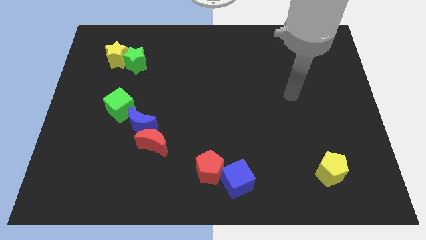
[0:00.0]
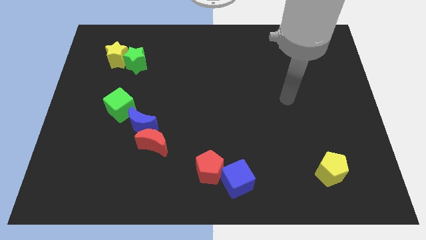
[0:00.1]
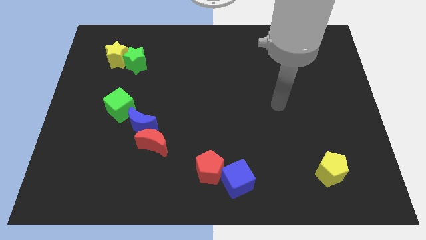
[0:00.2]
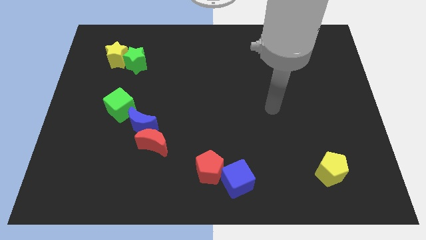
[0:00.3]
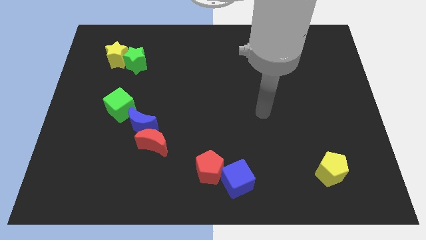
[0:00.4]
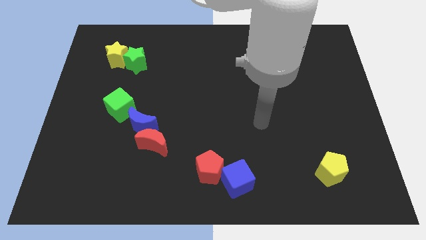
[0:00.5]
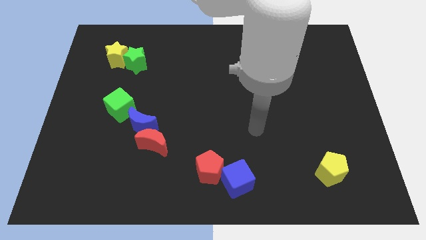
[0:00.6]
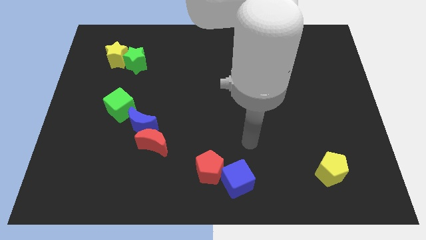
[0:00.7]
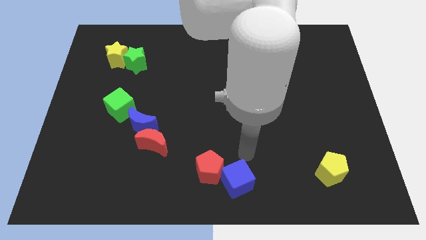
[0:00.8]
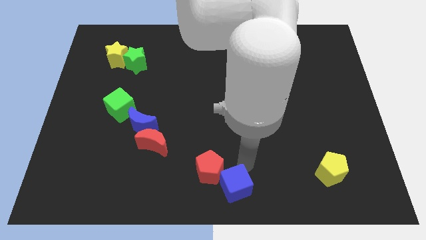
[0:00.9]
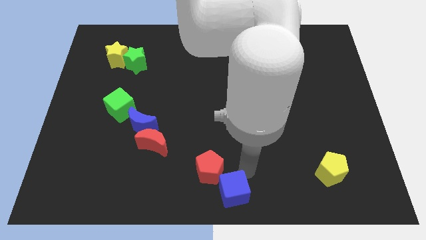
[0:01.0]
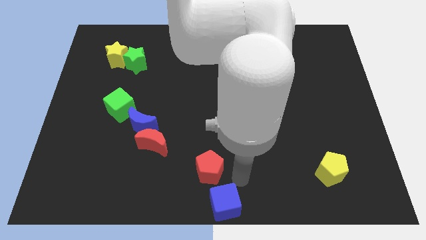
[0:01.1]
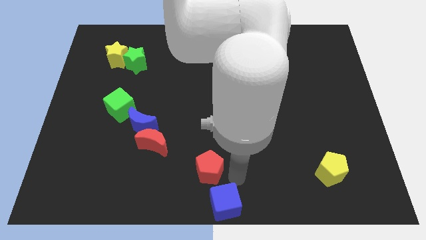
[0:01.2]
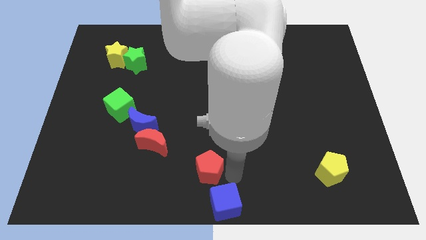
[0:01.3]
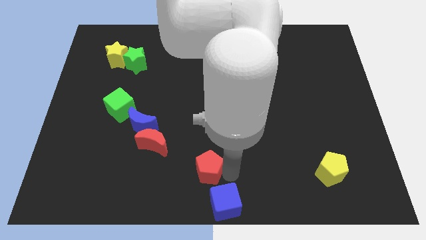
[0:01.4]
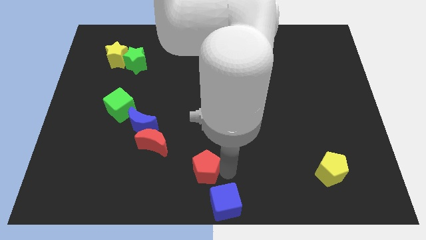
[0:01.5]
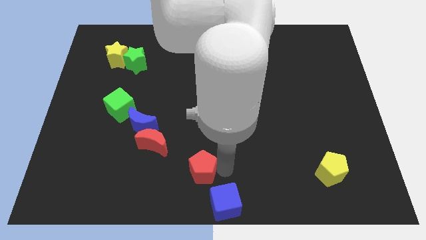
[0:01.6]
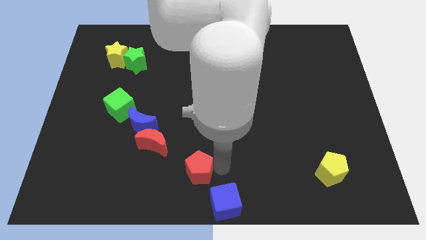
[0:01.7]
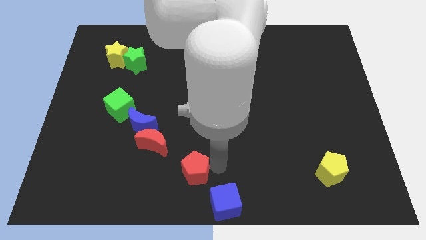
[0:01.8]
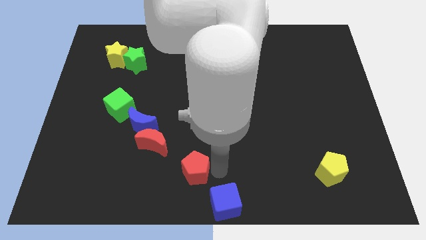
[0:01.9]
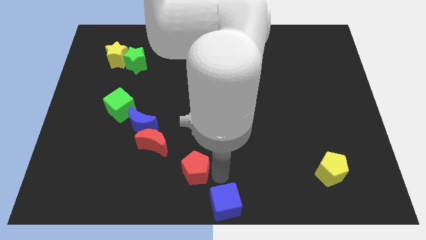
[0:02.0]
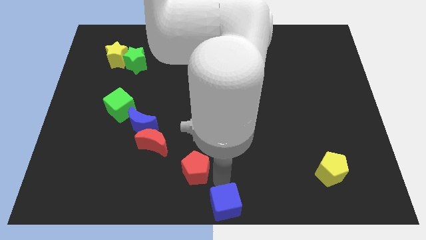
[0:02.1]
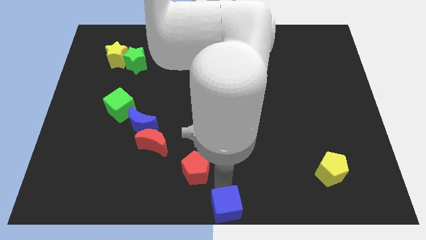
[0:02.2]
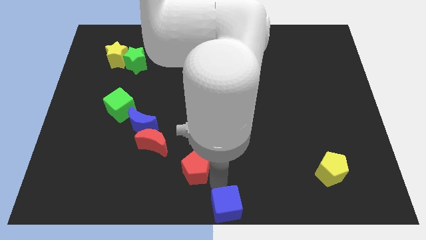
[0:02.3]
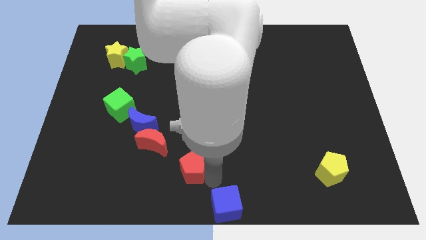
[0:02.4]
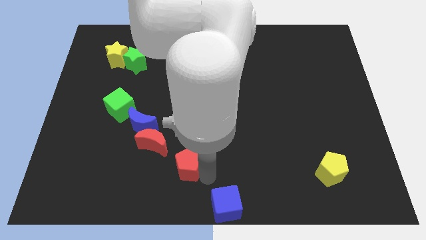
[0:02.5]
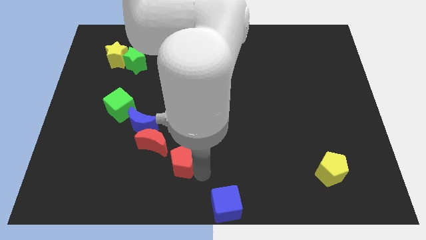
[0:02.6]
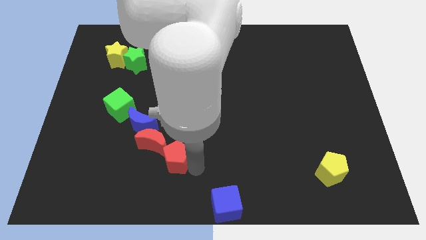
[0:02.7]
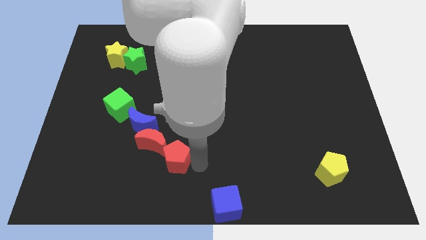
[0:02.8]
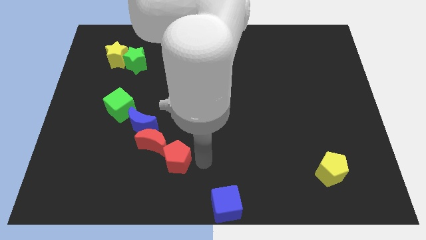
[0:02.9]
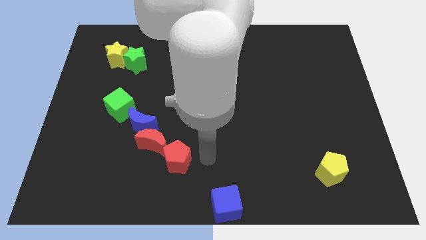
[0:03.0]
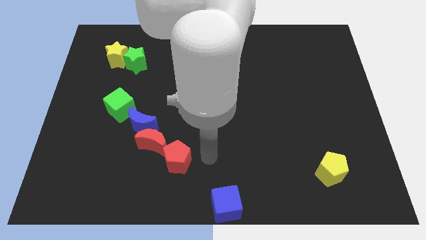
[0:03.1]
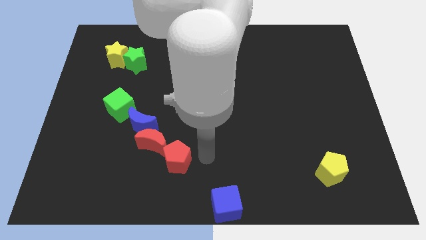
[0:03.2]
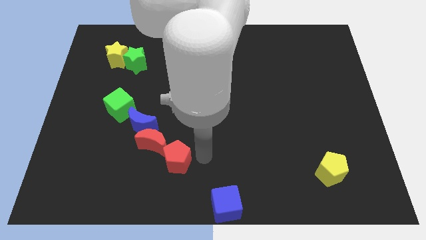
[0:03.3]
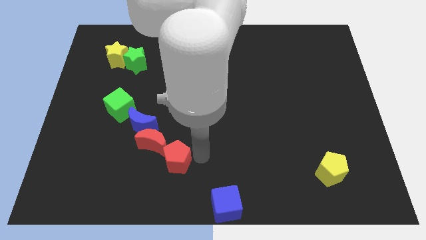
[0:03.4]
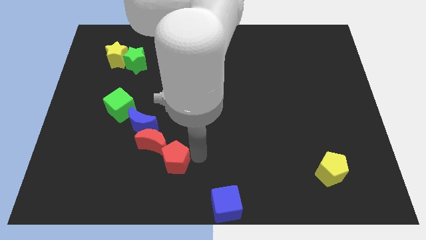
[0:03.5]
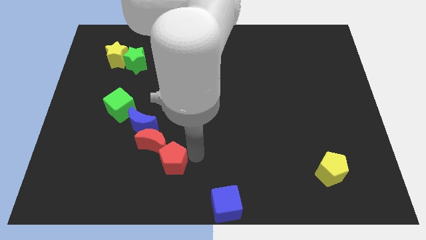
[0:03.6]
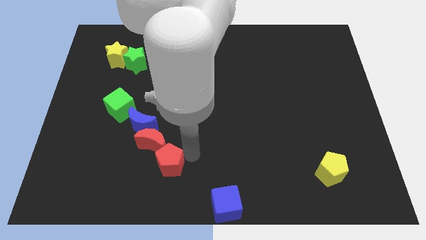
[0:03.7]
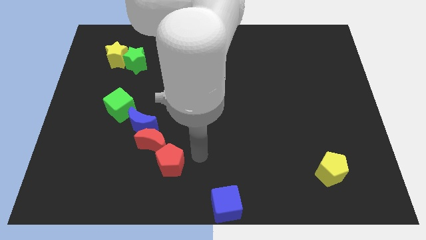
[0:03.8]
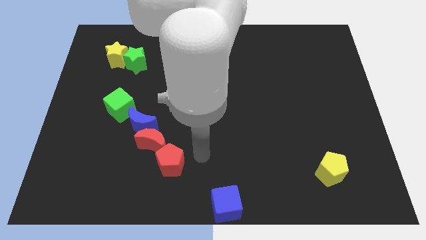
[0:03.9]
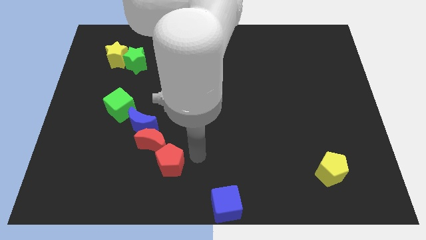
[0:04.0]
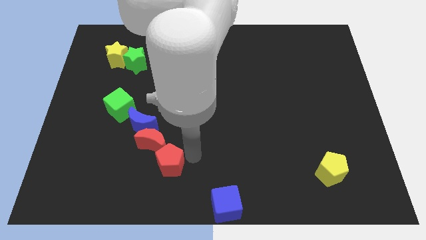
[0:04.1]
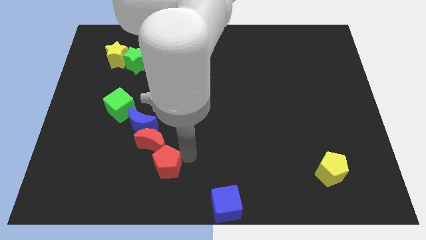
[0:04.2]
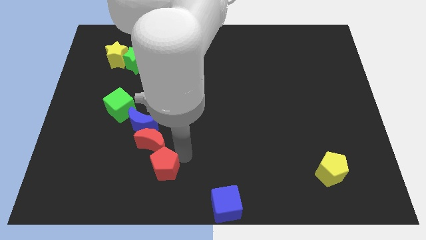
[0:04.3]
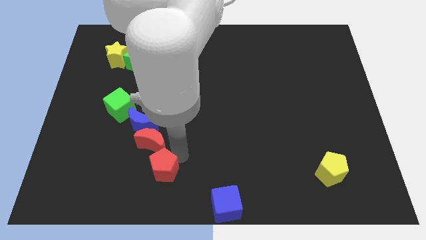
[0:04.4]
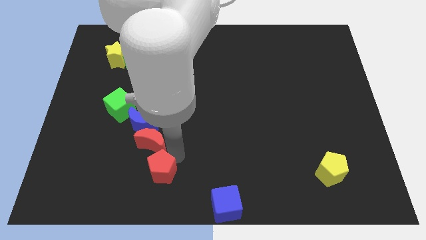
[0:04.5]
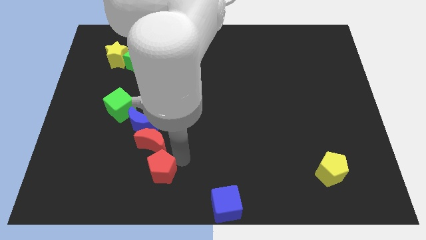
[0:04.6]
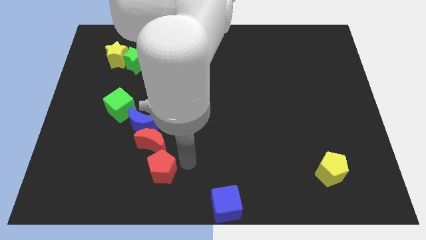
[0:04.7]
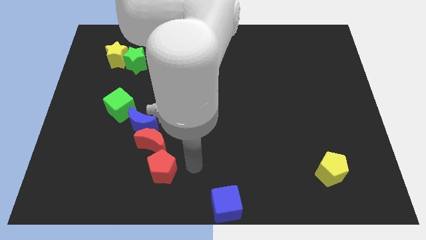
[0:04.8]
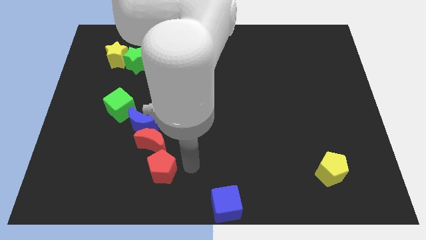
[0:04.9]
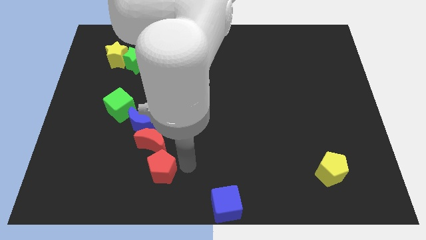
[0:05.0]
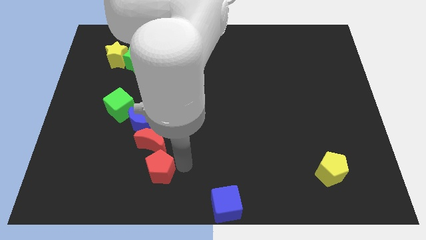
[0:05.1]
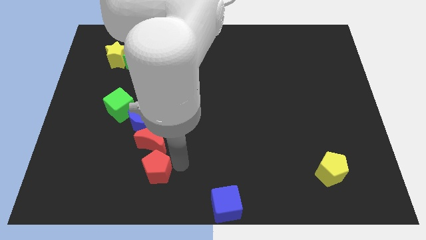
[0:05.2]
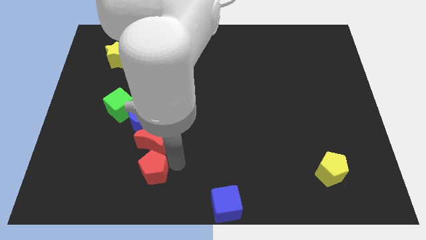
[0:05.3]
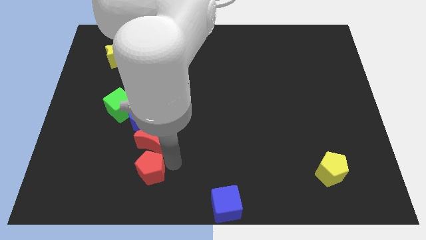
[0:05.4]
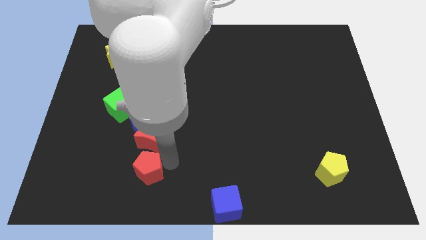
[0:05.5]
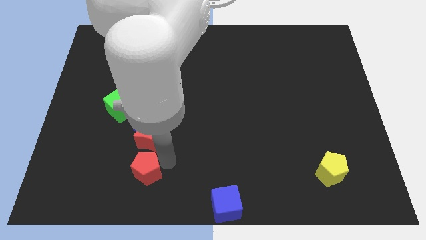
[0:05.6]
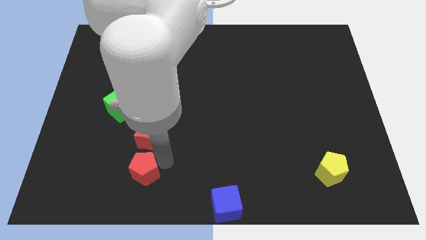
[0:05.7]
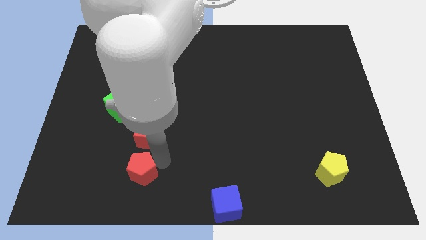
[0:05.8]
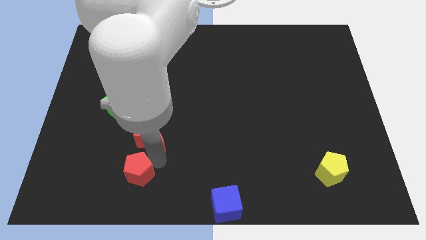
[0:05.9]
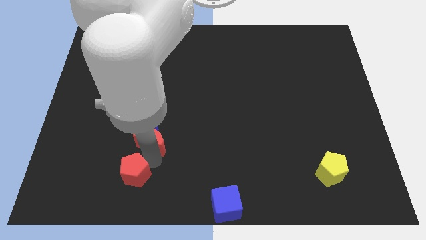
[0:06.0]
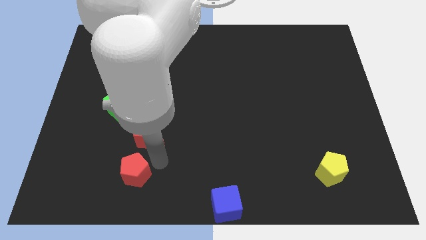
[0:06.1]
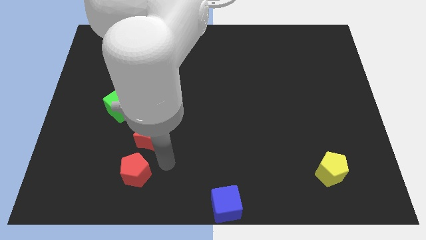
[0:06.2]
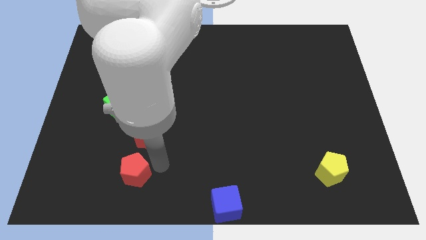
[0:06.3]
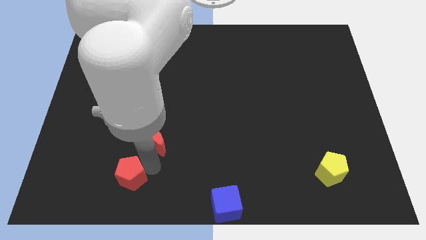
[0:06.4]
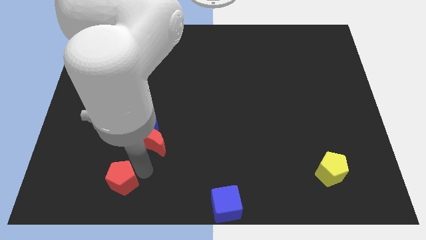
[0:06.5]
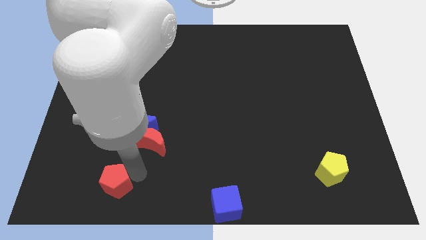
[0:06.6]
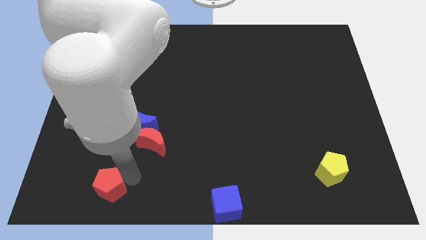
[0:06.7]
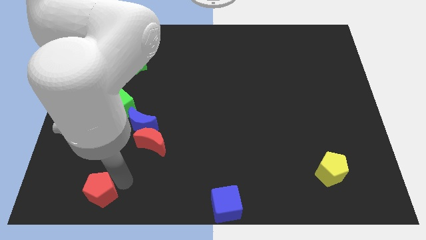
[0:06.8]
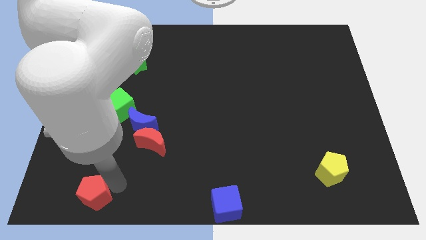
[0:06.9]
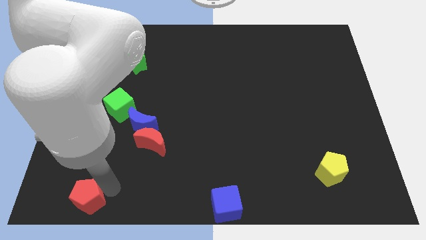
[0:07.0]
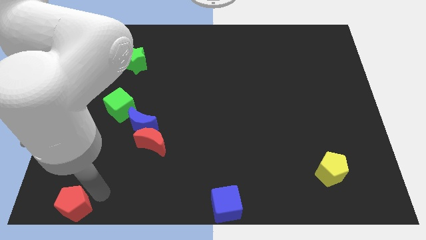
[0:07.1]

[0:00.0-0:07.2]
put the red pentagon to the bottom left of the board
